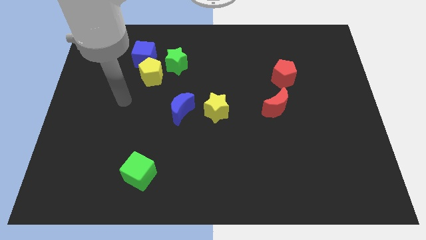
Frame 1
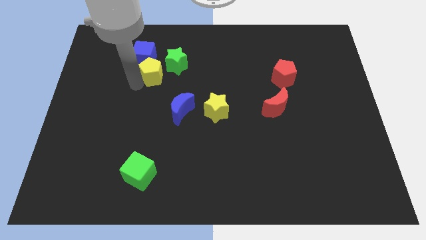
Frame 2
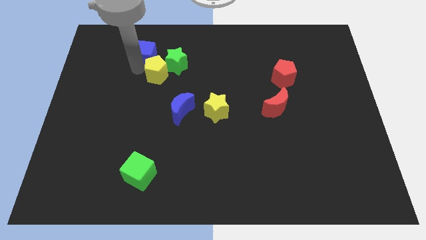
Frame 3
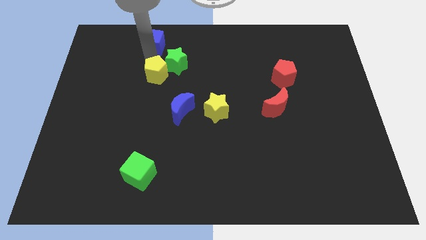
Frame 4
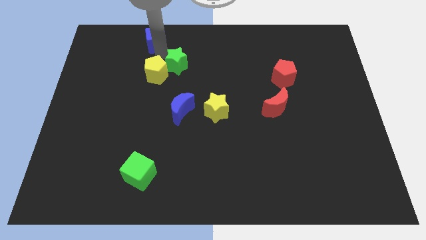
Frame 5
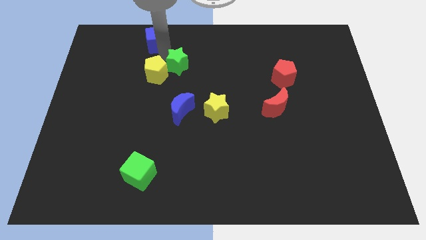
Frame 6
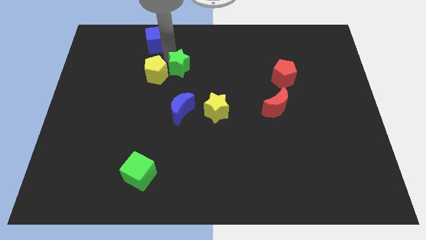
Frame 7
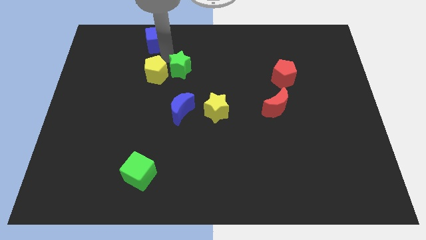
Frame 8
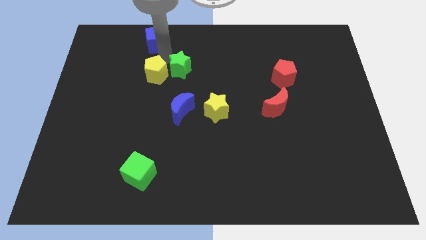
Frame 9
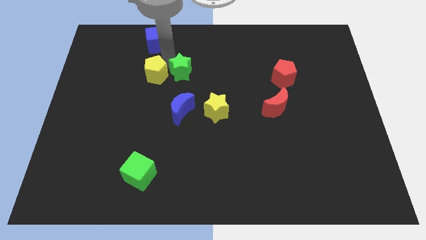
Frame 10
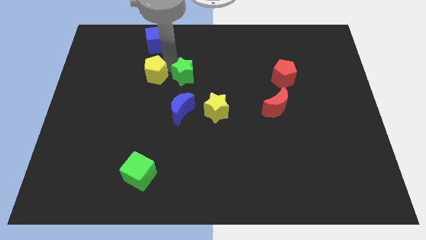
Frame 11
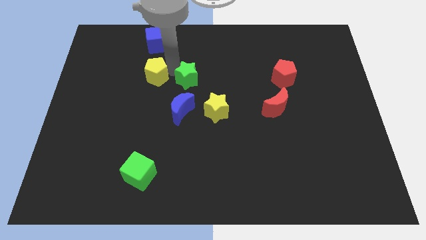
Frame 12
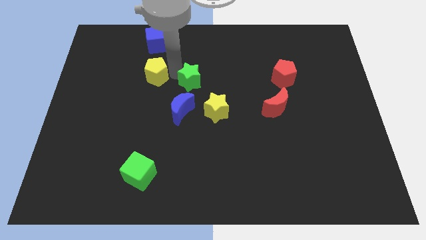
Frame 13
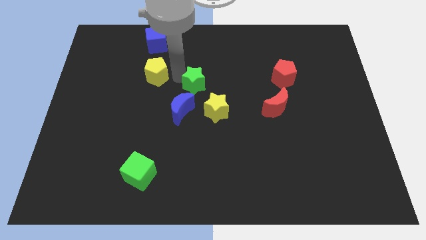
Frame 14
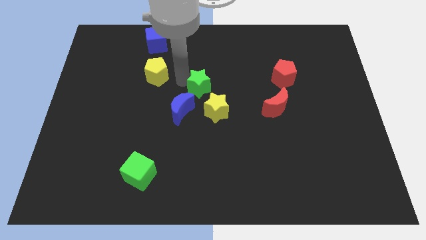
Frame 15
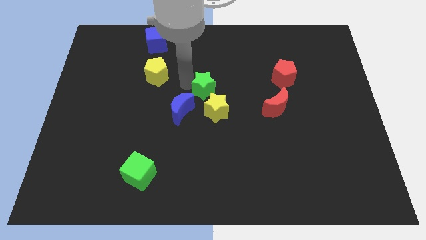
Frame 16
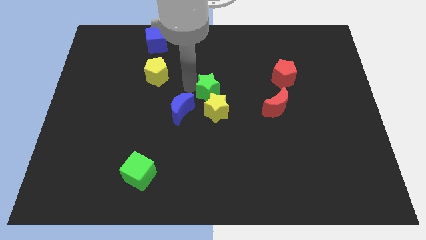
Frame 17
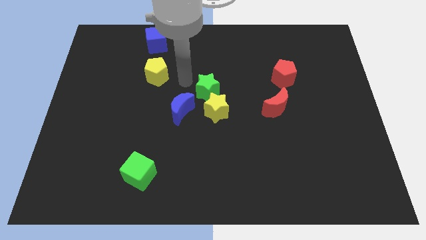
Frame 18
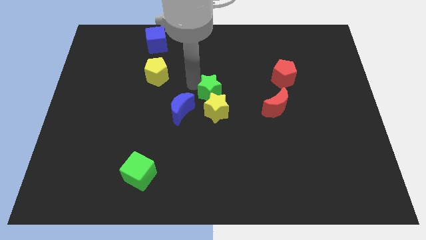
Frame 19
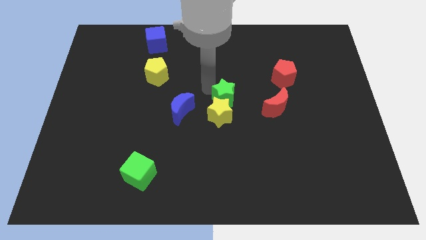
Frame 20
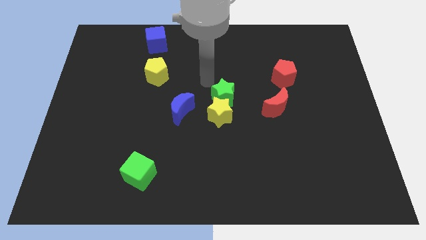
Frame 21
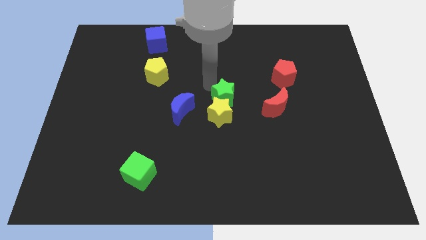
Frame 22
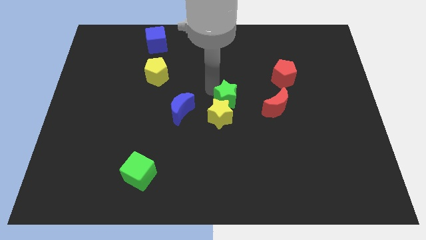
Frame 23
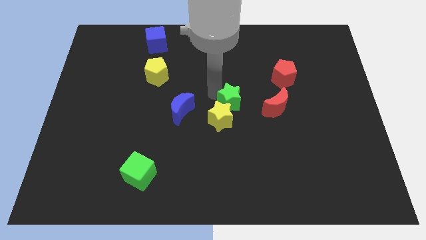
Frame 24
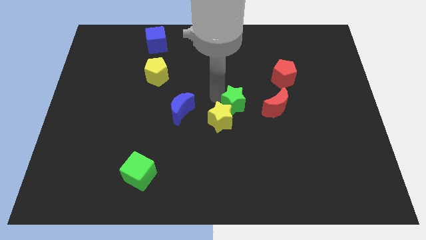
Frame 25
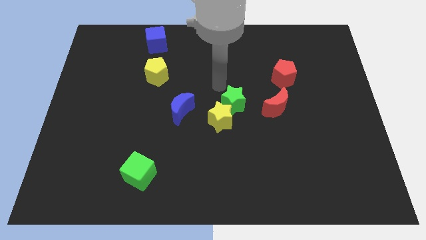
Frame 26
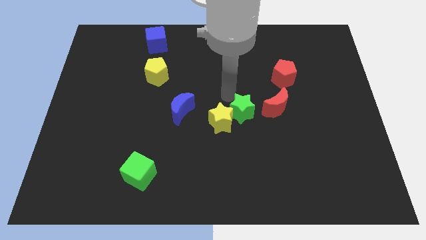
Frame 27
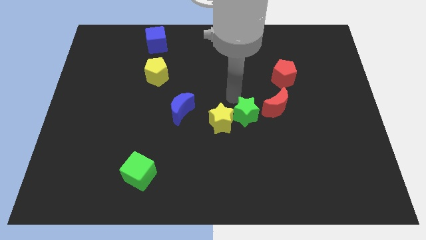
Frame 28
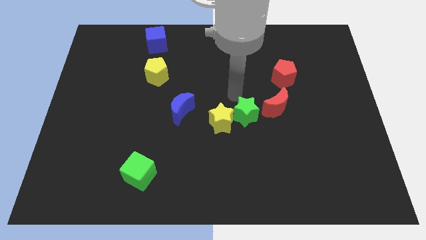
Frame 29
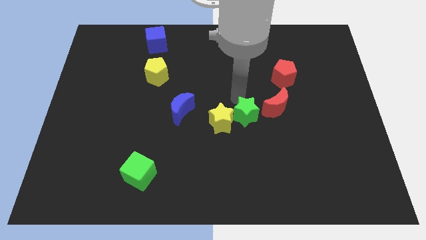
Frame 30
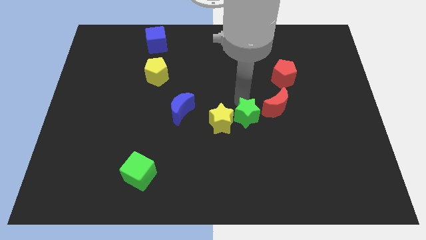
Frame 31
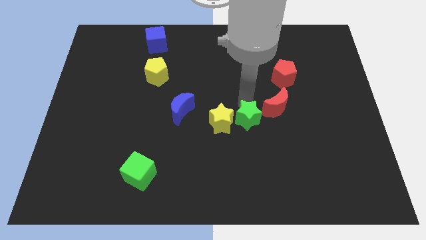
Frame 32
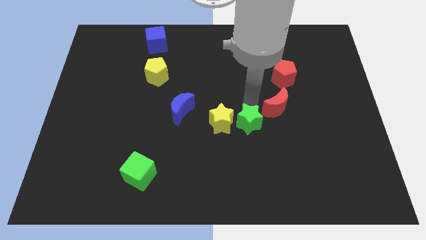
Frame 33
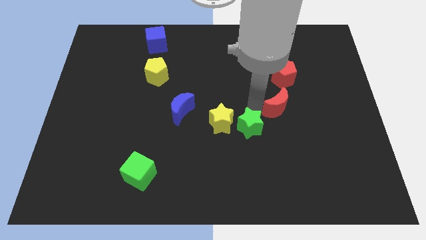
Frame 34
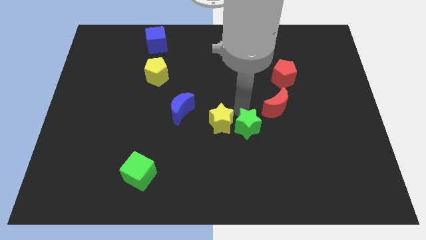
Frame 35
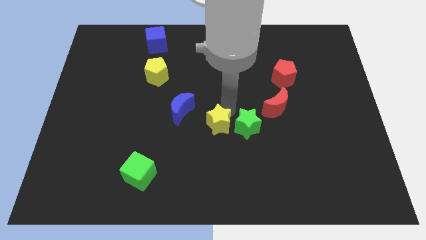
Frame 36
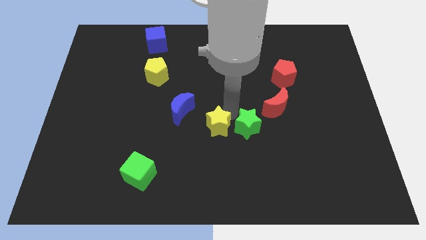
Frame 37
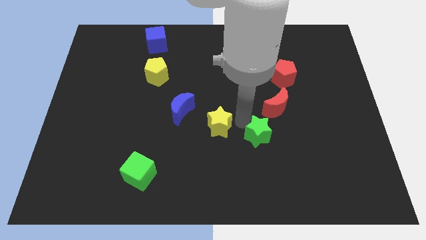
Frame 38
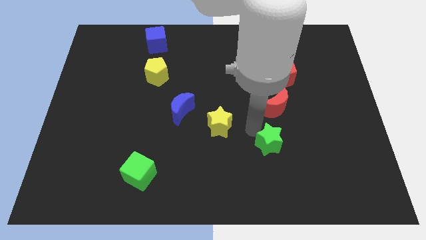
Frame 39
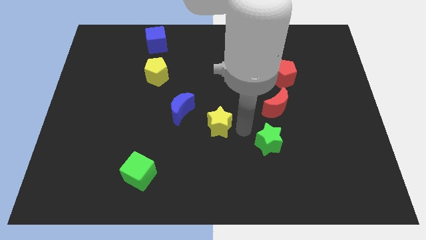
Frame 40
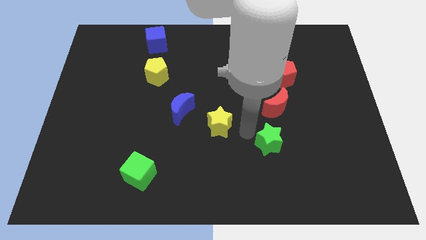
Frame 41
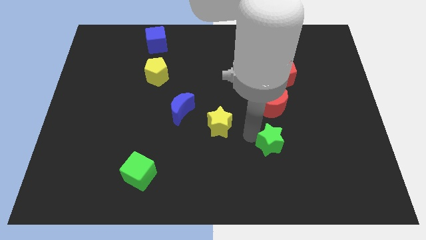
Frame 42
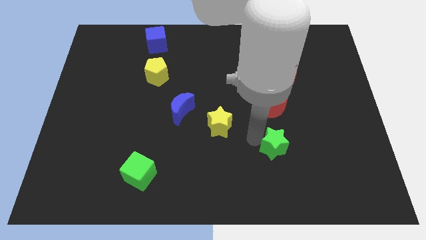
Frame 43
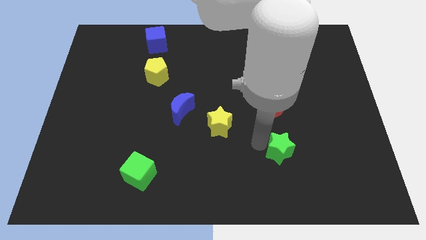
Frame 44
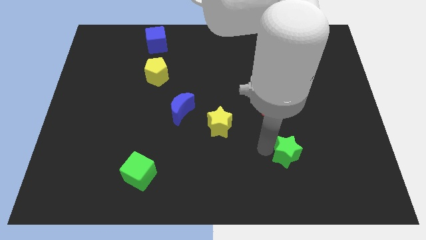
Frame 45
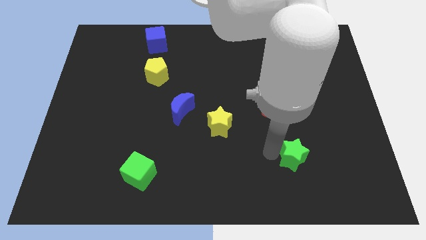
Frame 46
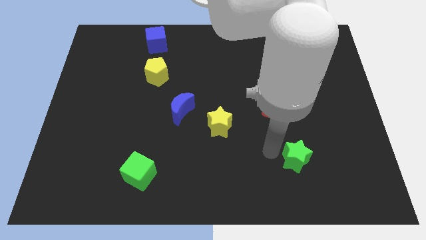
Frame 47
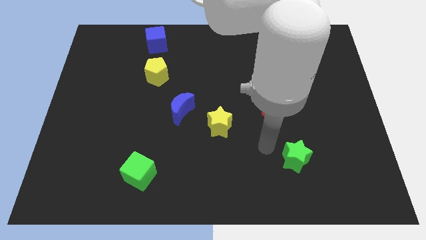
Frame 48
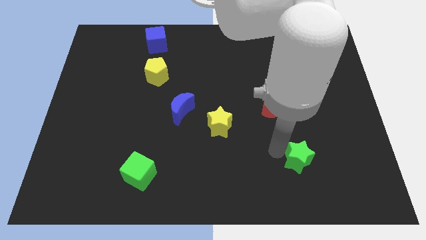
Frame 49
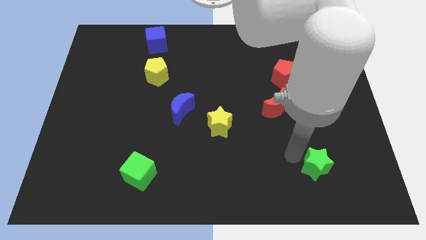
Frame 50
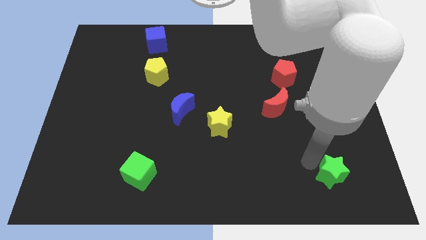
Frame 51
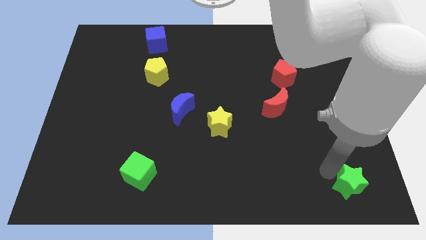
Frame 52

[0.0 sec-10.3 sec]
move the green star to the bottom right corner

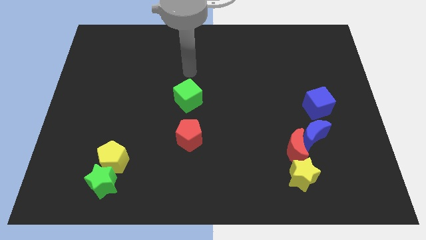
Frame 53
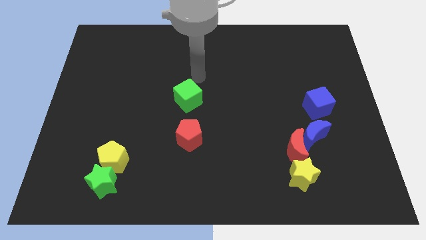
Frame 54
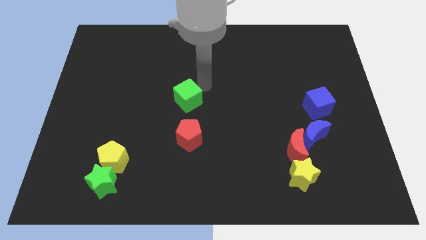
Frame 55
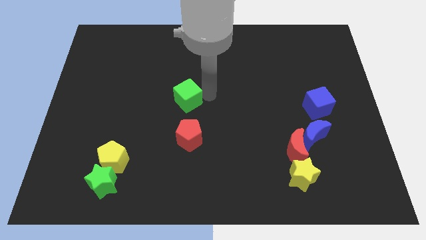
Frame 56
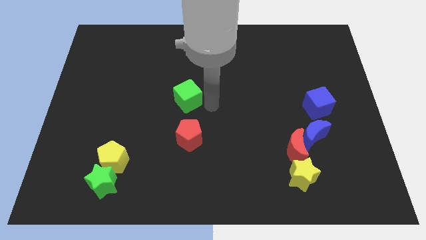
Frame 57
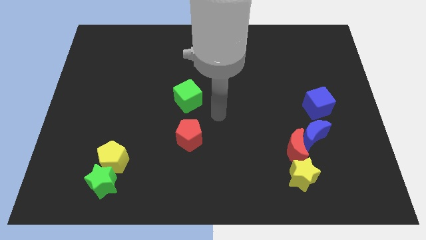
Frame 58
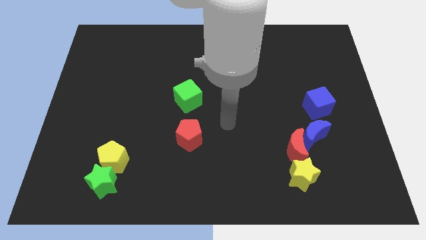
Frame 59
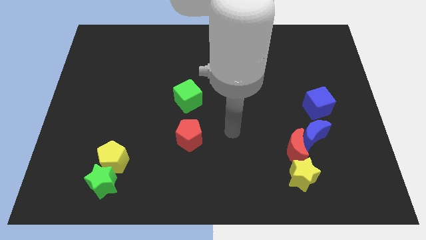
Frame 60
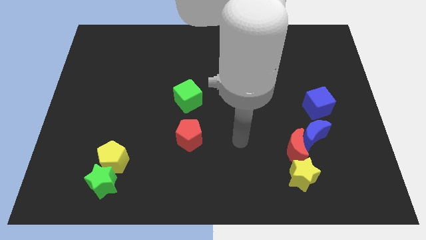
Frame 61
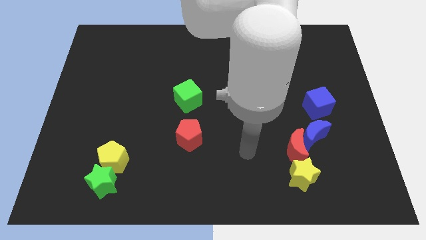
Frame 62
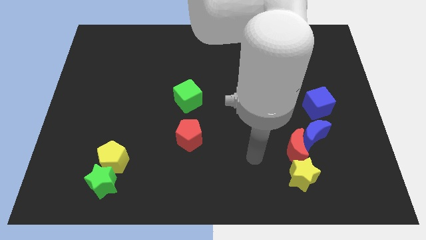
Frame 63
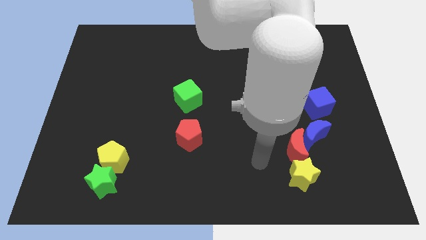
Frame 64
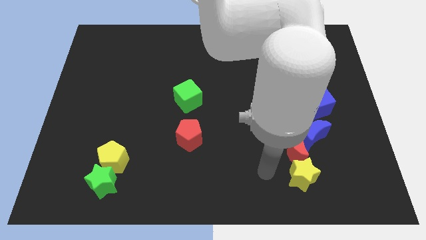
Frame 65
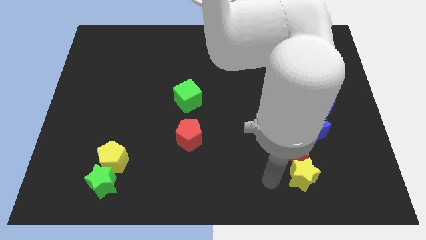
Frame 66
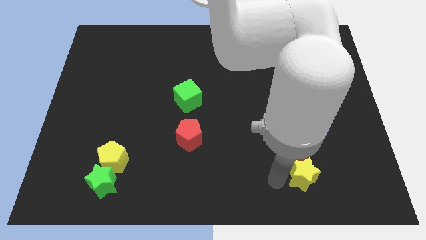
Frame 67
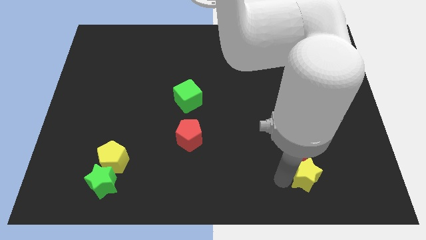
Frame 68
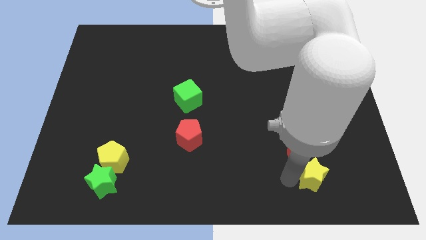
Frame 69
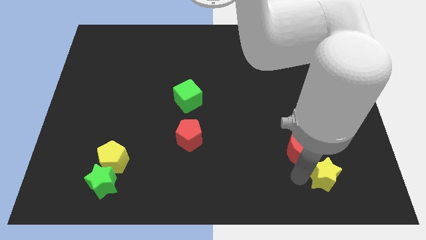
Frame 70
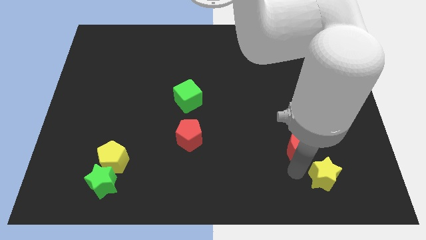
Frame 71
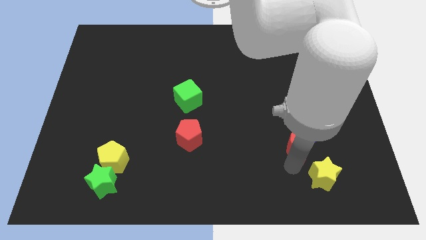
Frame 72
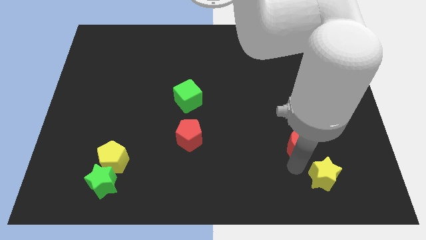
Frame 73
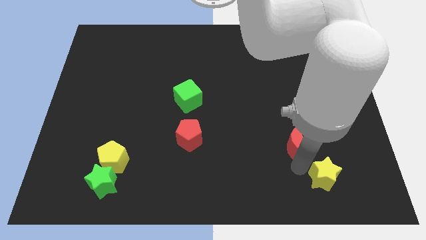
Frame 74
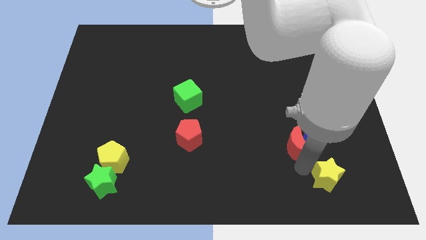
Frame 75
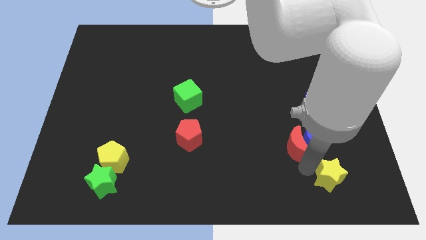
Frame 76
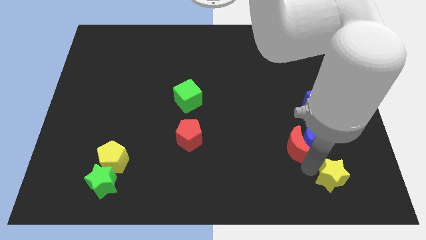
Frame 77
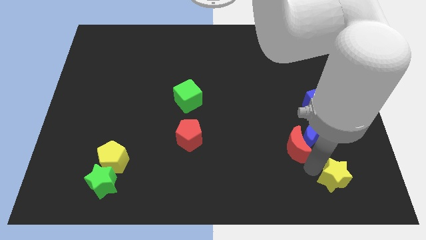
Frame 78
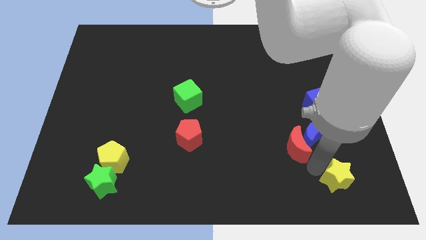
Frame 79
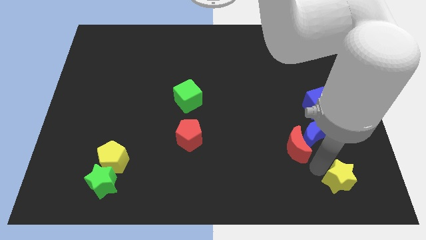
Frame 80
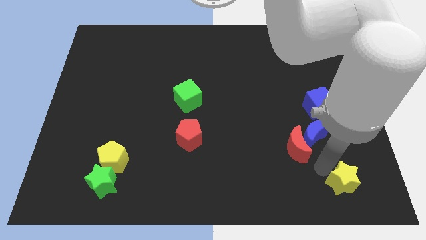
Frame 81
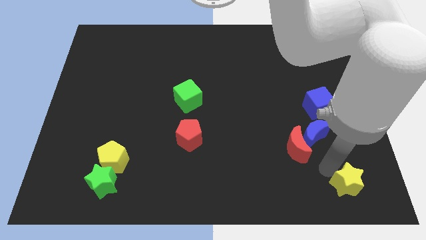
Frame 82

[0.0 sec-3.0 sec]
move the yellow star to the lower right corner
